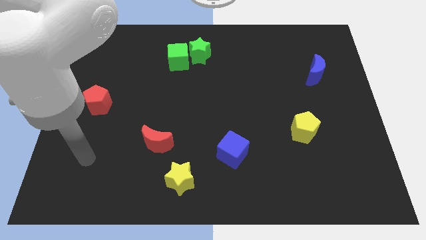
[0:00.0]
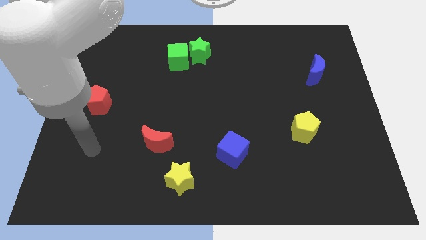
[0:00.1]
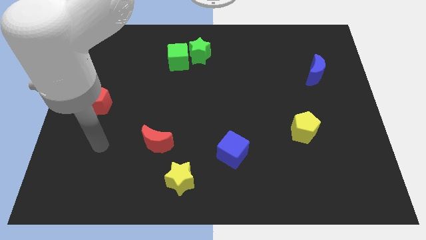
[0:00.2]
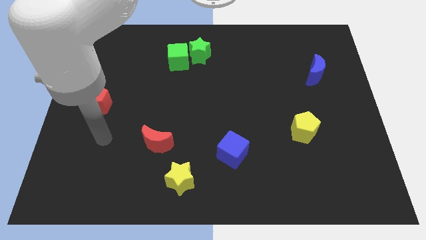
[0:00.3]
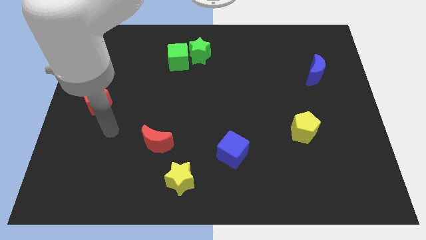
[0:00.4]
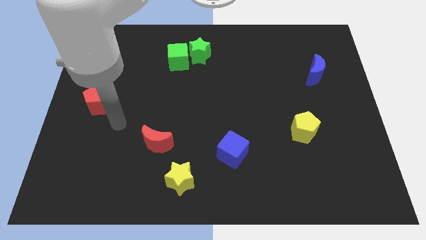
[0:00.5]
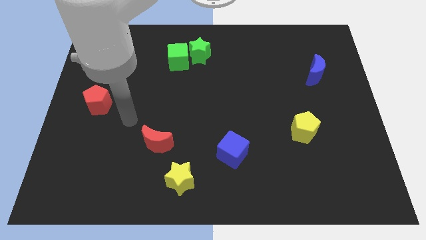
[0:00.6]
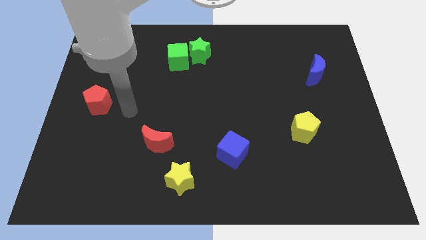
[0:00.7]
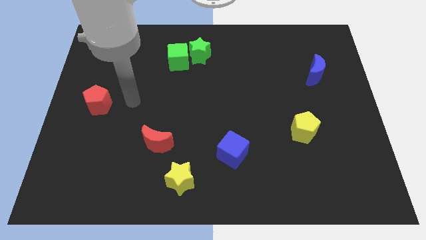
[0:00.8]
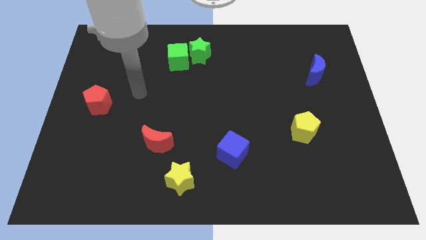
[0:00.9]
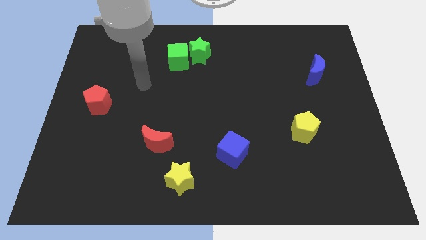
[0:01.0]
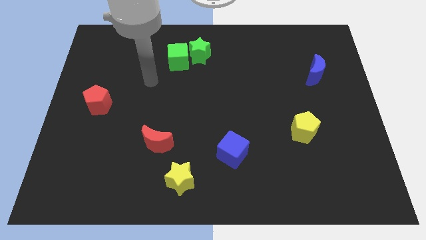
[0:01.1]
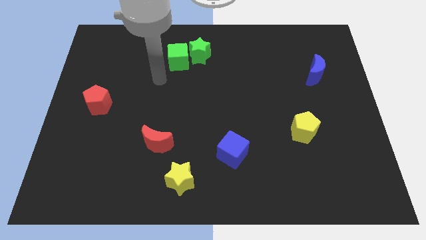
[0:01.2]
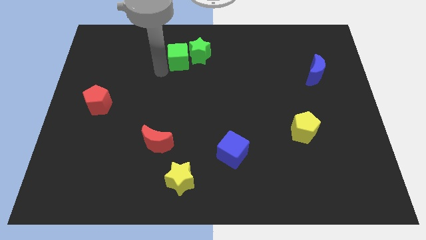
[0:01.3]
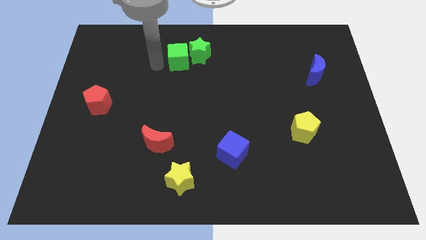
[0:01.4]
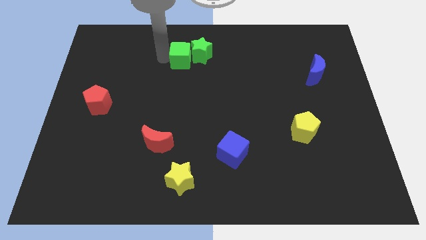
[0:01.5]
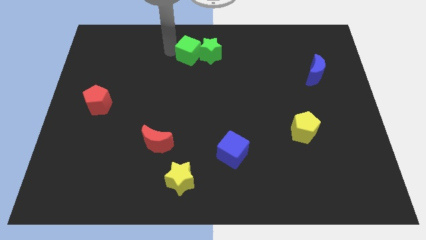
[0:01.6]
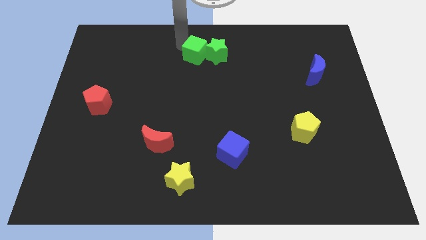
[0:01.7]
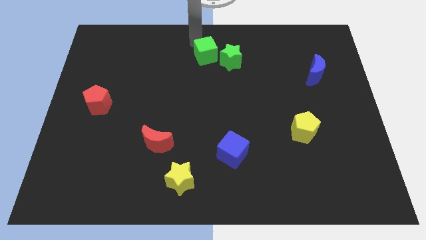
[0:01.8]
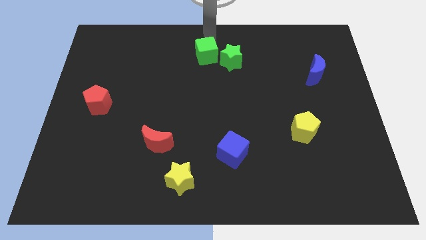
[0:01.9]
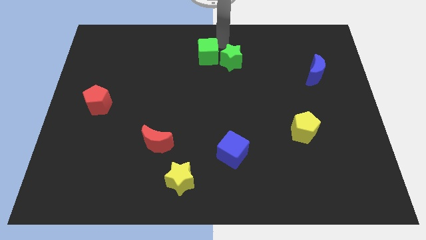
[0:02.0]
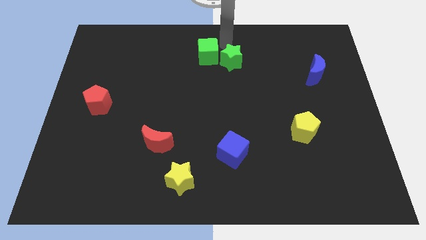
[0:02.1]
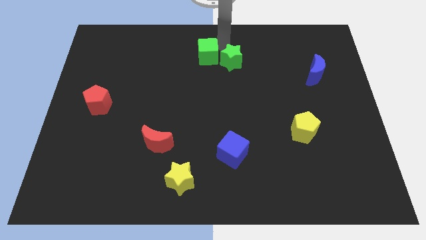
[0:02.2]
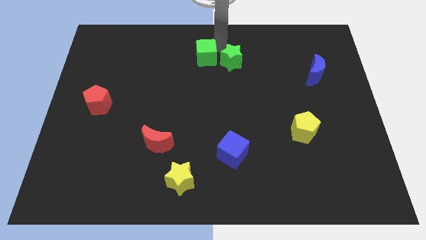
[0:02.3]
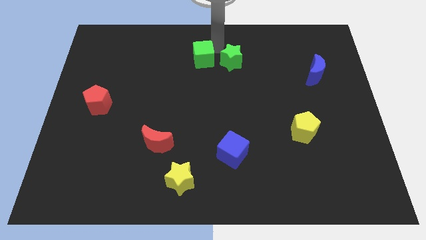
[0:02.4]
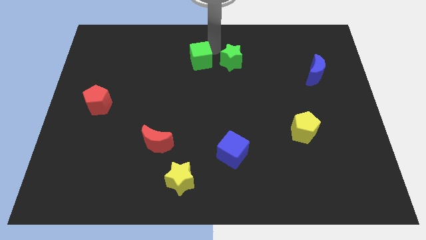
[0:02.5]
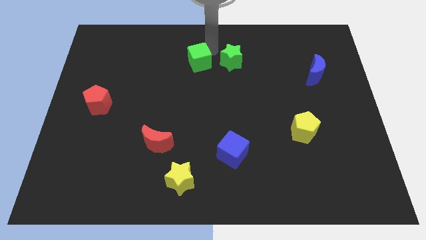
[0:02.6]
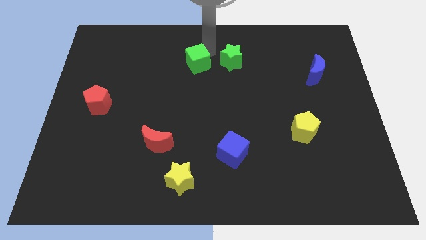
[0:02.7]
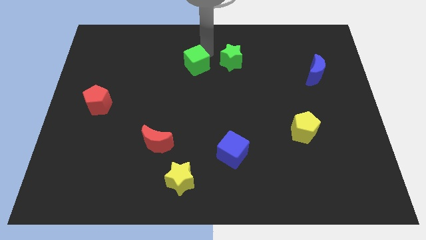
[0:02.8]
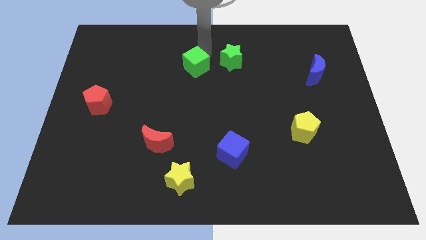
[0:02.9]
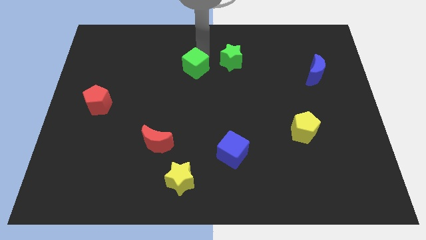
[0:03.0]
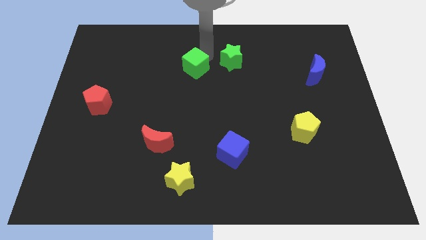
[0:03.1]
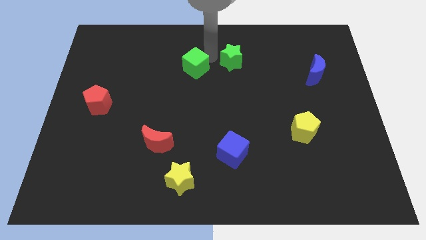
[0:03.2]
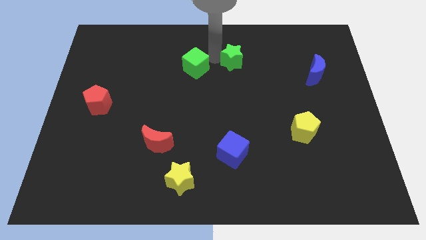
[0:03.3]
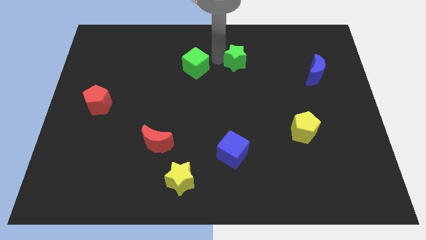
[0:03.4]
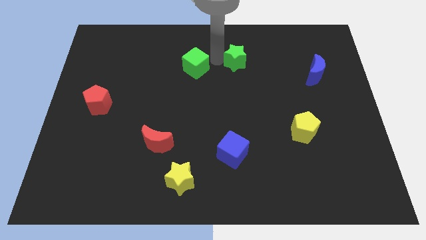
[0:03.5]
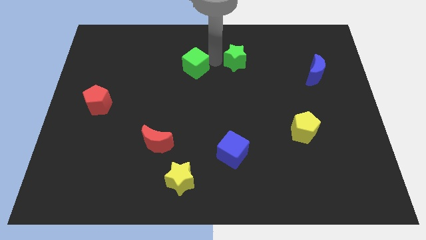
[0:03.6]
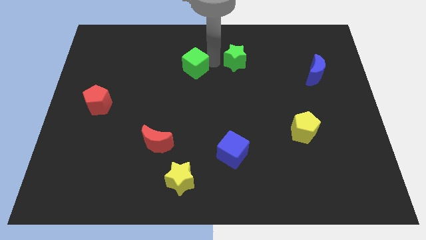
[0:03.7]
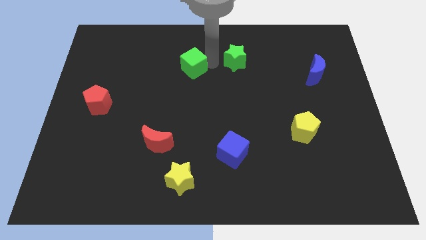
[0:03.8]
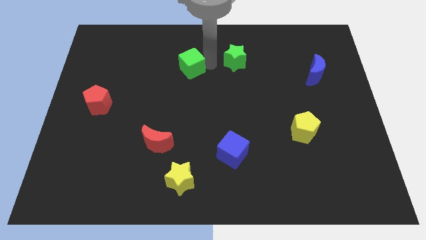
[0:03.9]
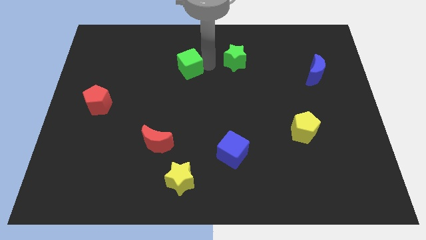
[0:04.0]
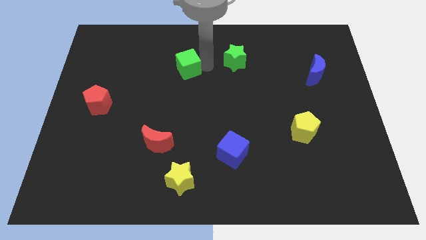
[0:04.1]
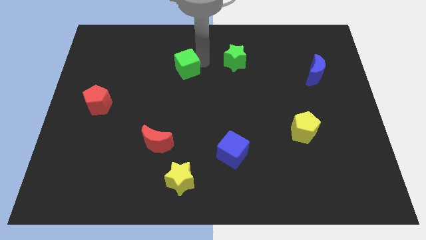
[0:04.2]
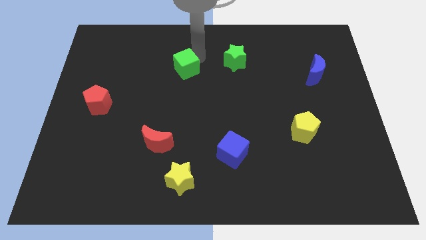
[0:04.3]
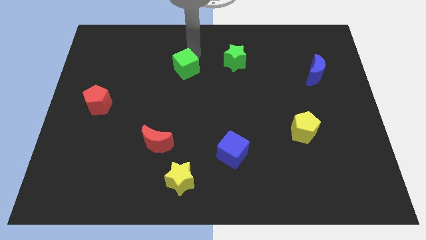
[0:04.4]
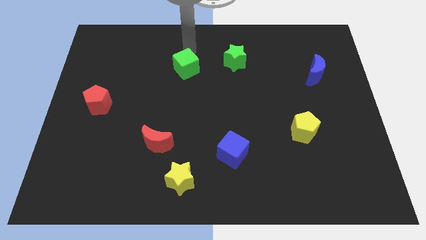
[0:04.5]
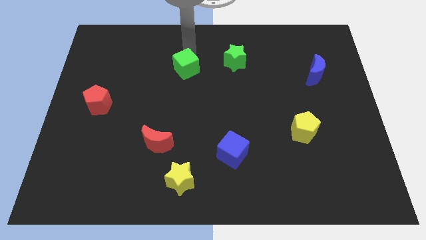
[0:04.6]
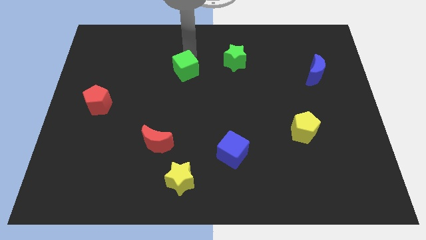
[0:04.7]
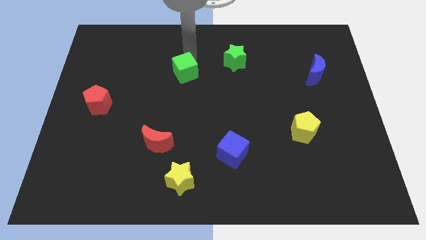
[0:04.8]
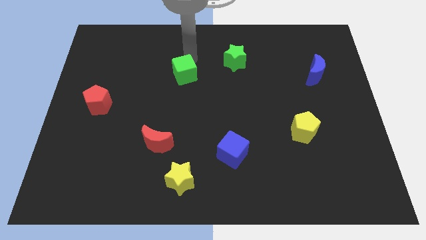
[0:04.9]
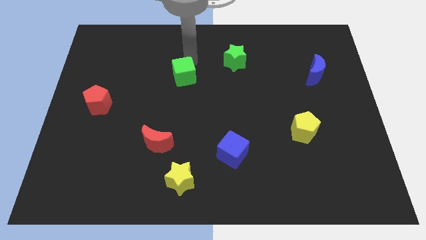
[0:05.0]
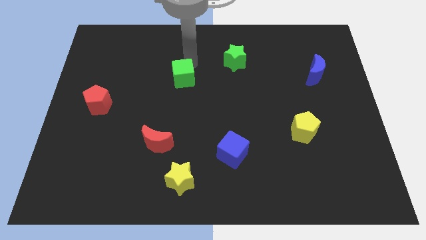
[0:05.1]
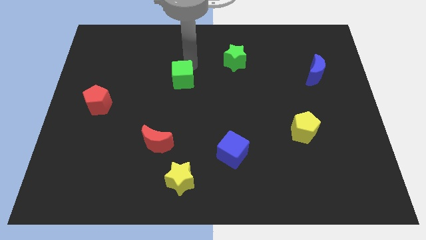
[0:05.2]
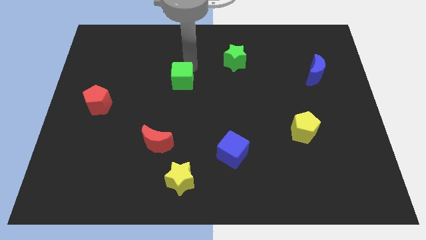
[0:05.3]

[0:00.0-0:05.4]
slightly move the green cube down

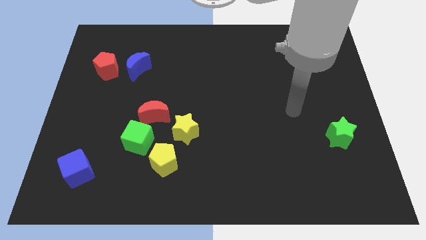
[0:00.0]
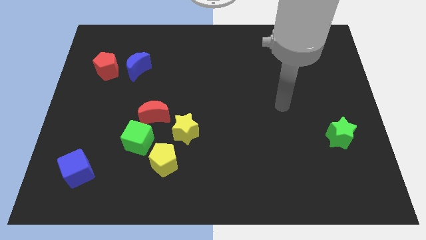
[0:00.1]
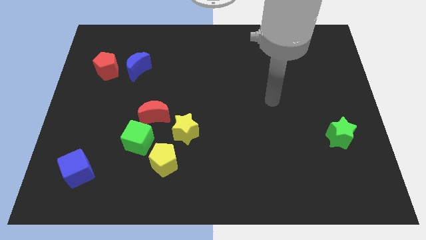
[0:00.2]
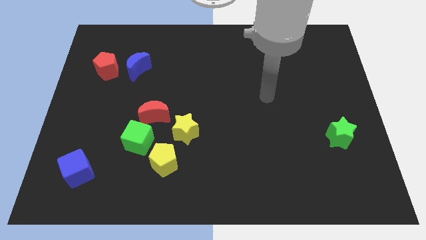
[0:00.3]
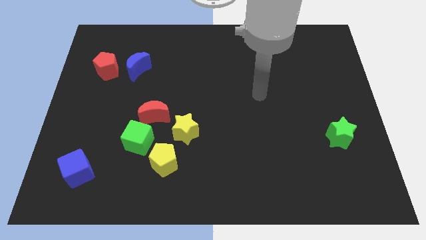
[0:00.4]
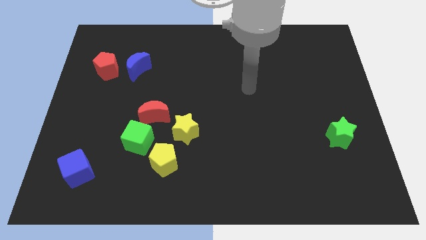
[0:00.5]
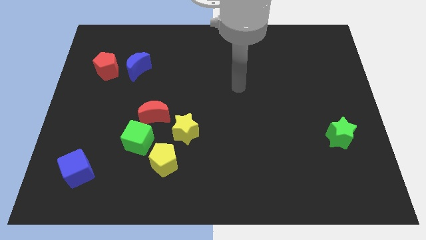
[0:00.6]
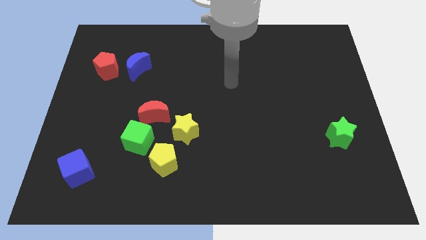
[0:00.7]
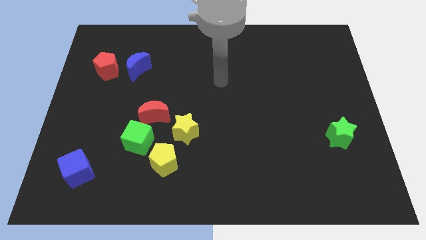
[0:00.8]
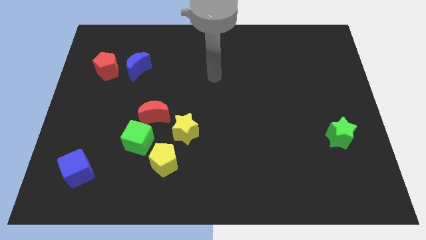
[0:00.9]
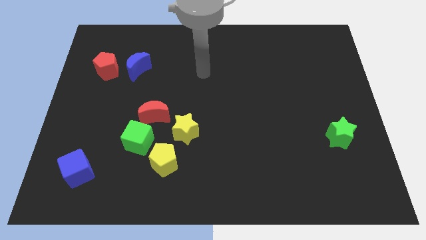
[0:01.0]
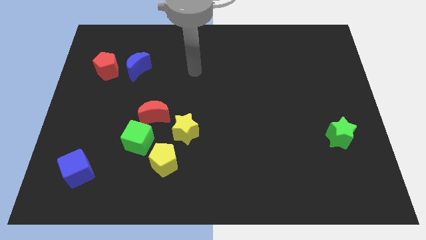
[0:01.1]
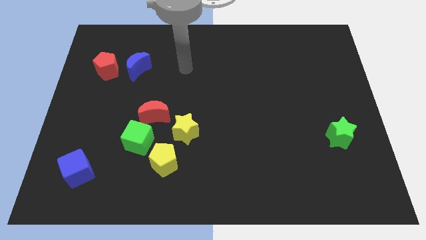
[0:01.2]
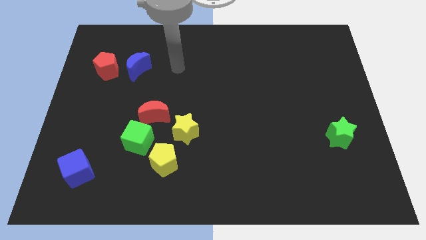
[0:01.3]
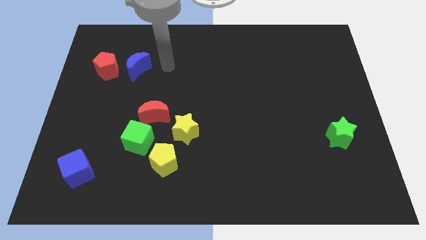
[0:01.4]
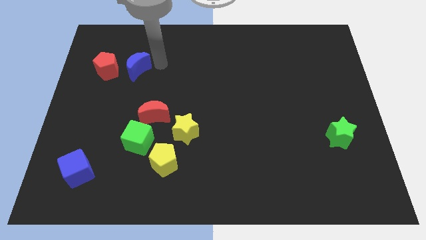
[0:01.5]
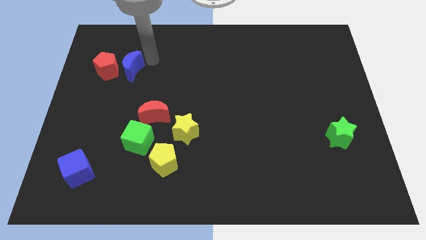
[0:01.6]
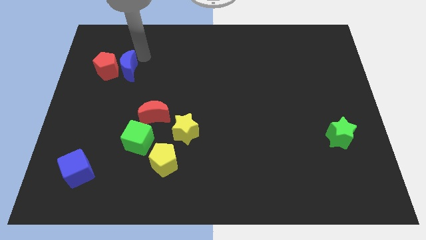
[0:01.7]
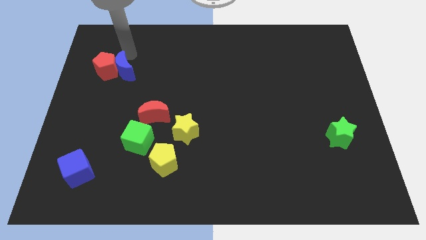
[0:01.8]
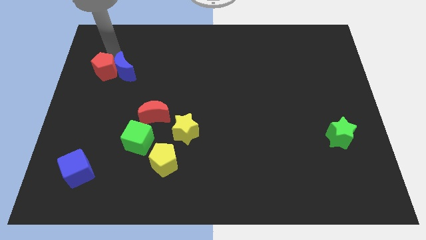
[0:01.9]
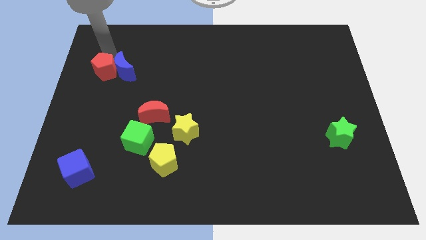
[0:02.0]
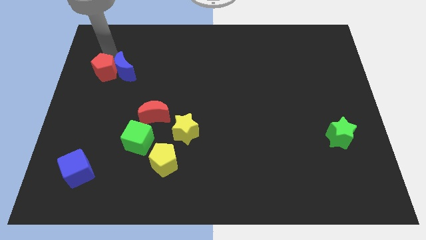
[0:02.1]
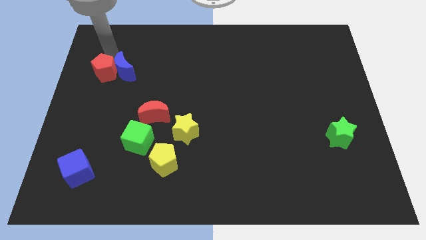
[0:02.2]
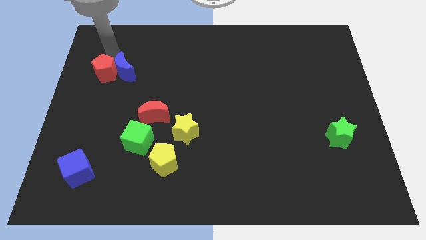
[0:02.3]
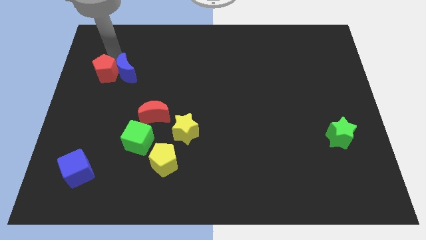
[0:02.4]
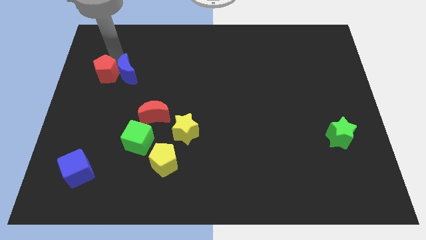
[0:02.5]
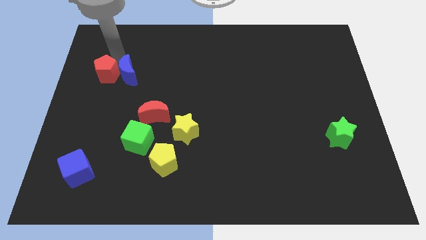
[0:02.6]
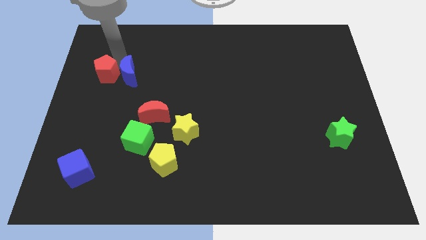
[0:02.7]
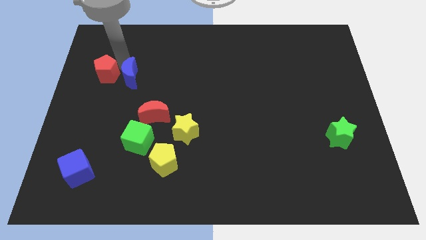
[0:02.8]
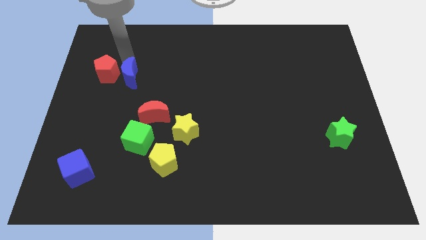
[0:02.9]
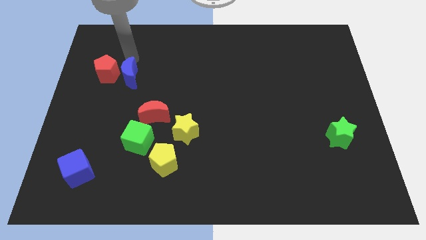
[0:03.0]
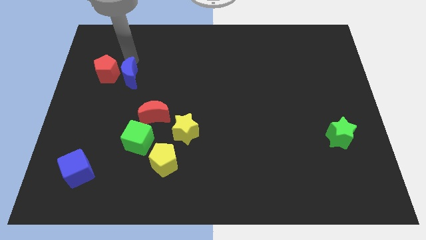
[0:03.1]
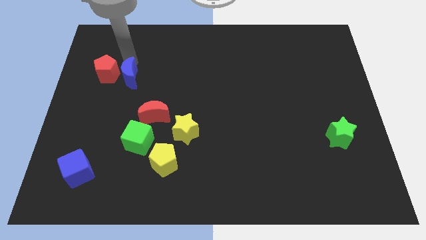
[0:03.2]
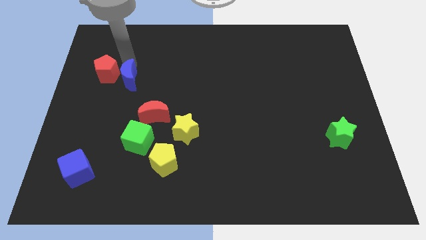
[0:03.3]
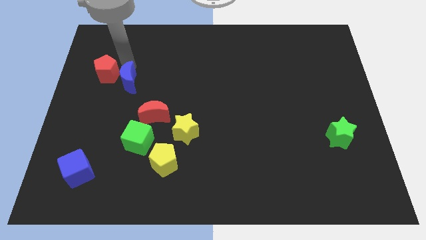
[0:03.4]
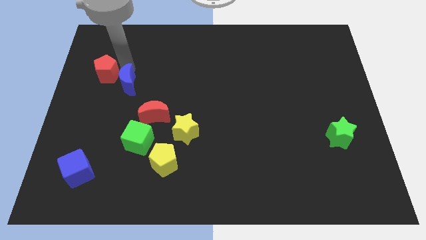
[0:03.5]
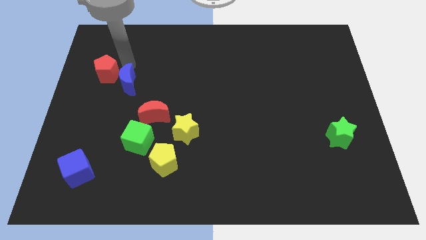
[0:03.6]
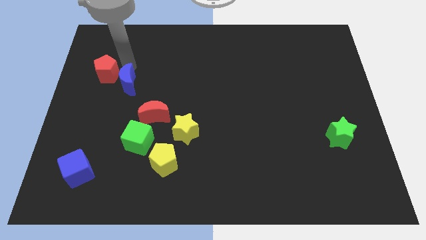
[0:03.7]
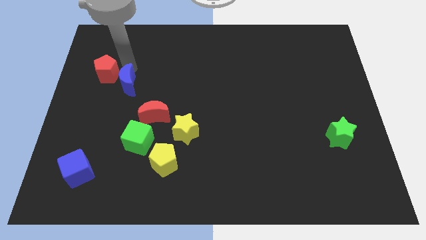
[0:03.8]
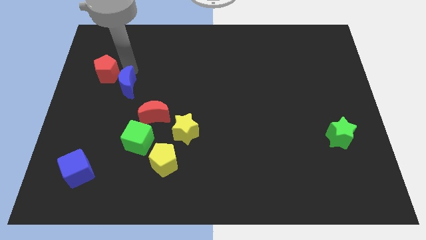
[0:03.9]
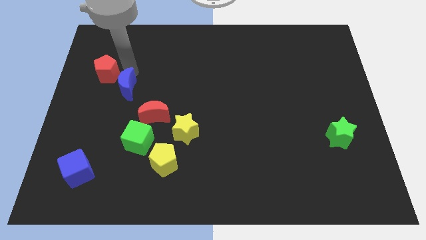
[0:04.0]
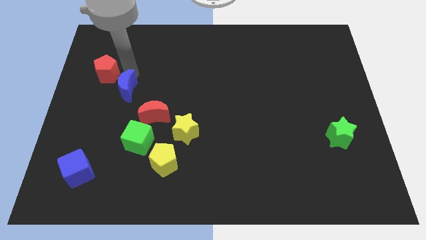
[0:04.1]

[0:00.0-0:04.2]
slightly push the blue moon down
